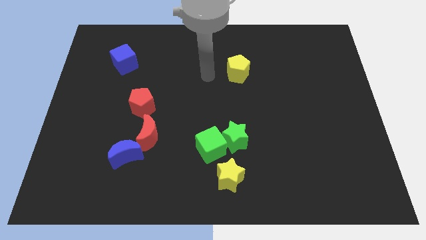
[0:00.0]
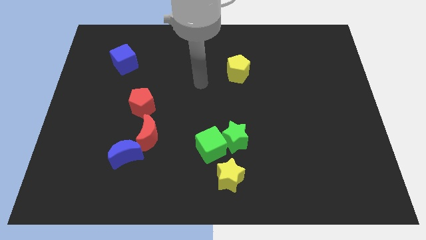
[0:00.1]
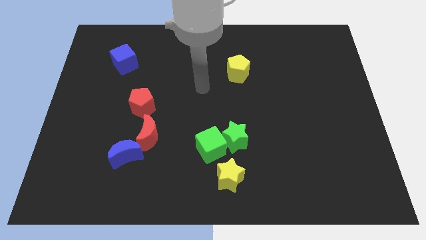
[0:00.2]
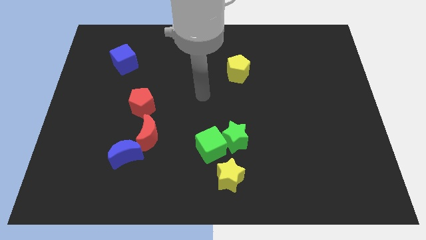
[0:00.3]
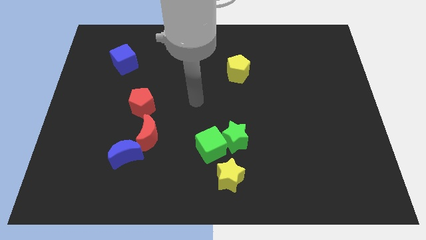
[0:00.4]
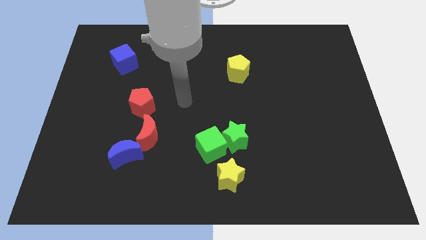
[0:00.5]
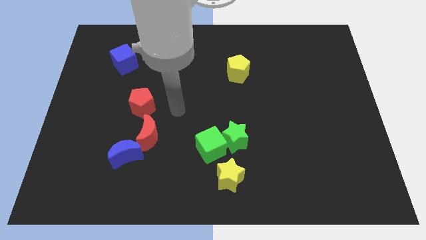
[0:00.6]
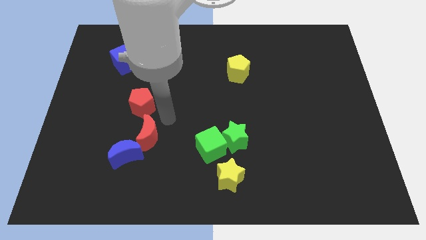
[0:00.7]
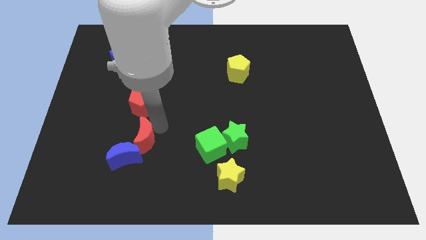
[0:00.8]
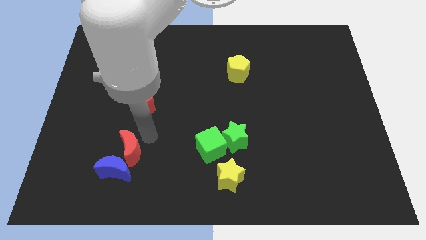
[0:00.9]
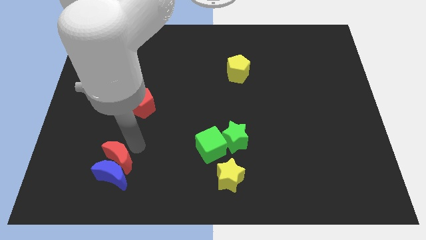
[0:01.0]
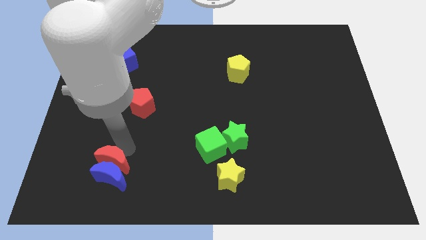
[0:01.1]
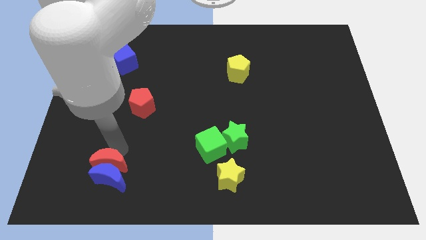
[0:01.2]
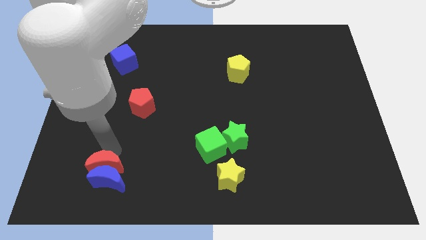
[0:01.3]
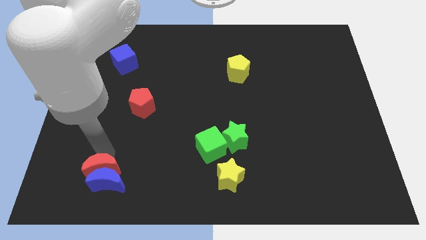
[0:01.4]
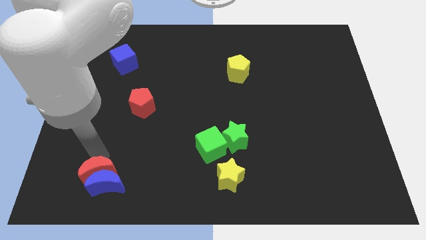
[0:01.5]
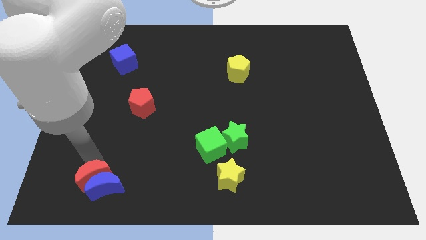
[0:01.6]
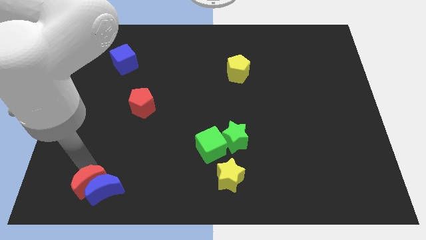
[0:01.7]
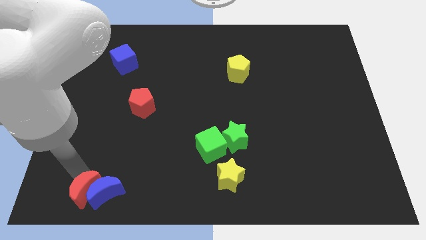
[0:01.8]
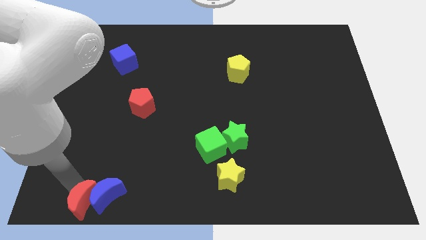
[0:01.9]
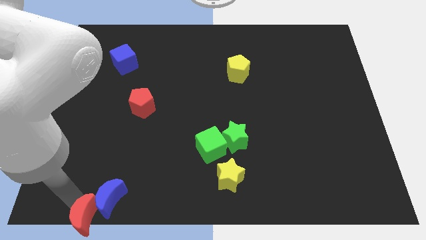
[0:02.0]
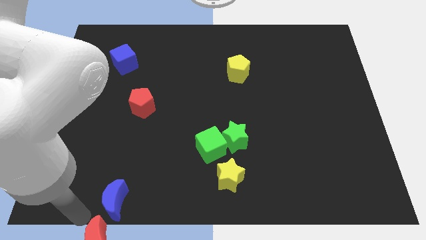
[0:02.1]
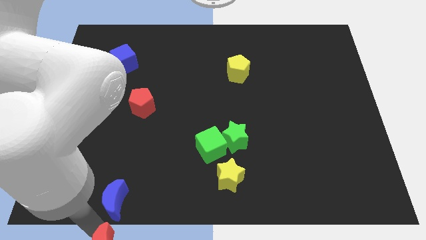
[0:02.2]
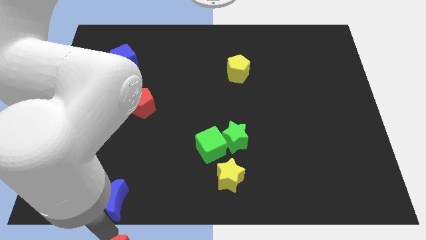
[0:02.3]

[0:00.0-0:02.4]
pull the blue moon apart from the red moon

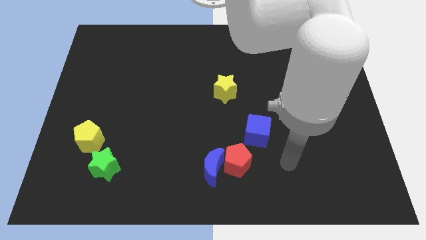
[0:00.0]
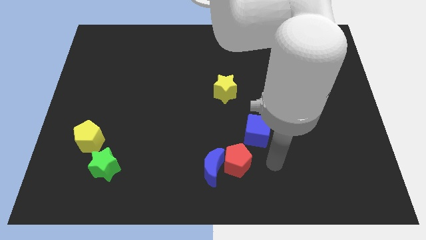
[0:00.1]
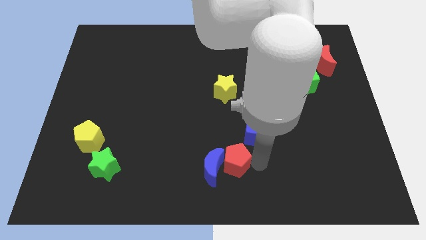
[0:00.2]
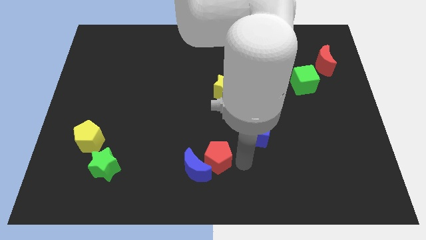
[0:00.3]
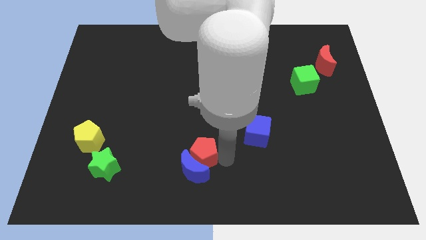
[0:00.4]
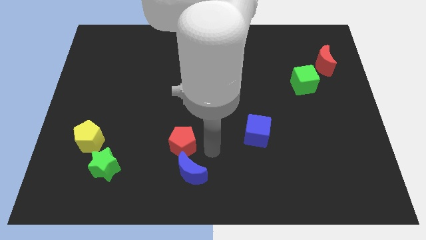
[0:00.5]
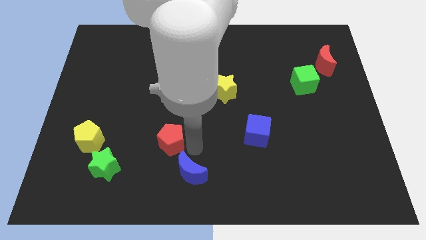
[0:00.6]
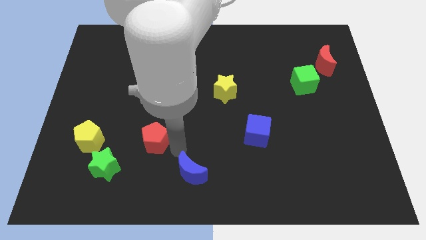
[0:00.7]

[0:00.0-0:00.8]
pull the blue moon apart from the red pentagon

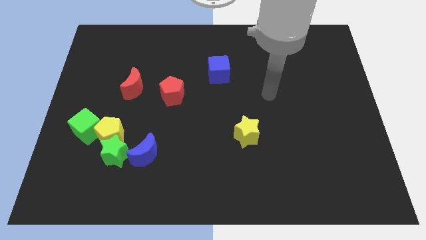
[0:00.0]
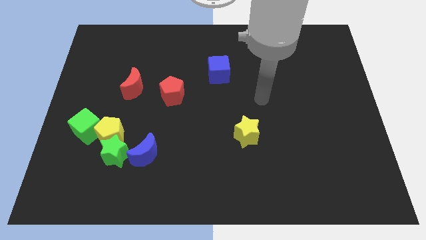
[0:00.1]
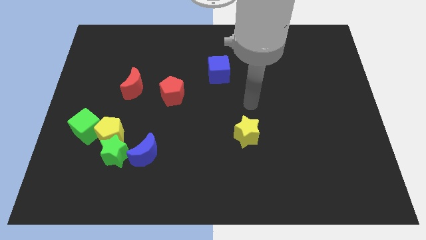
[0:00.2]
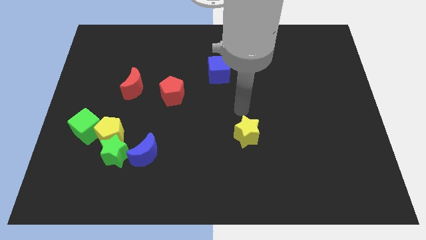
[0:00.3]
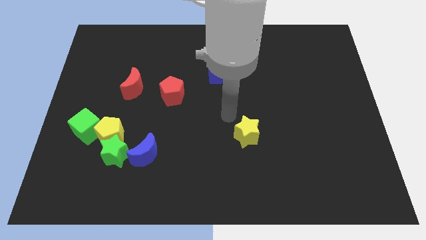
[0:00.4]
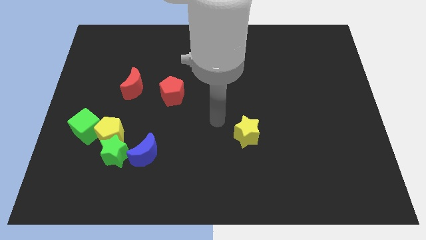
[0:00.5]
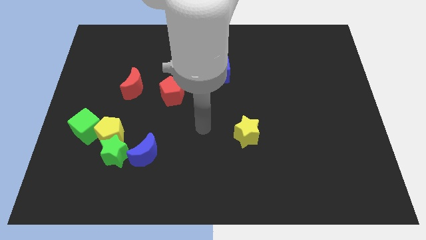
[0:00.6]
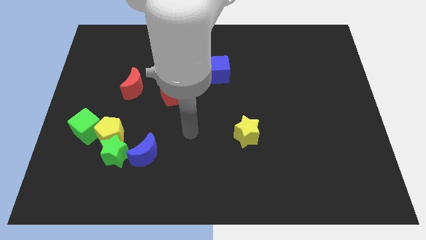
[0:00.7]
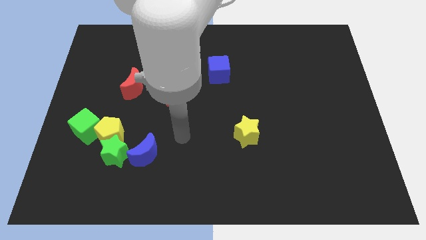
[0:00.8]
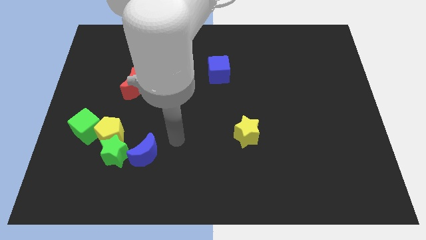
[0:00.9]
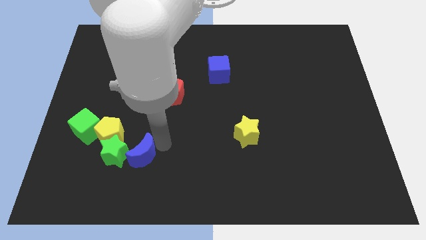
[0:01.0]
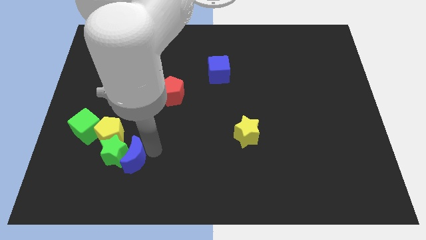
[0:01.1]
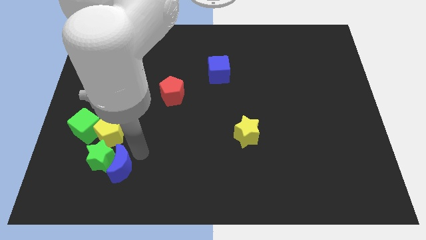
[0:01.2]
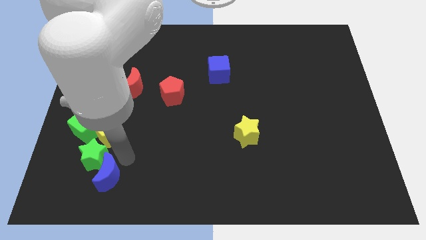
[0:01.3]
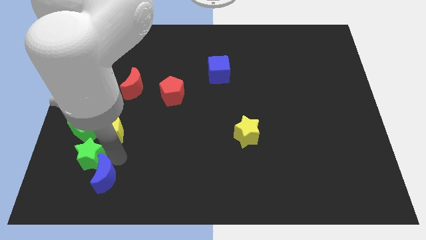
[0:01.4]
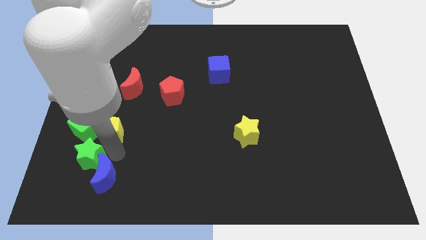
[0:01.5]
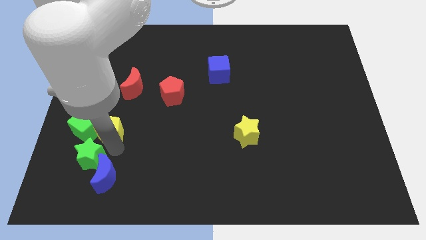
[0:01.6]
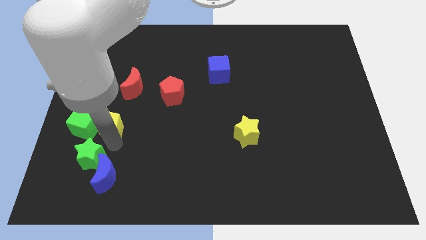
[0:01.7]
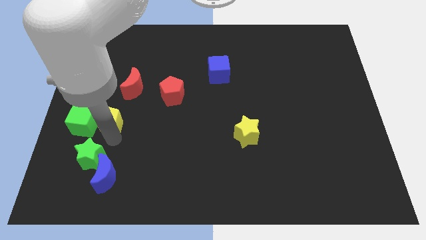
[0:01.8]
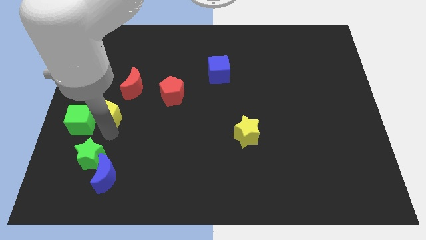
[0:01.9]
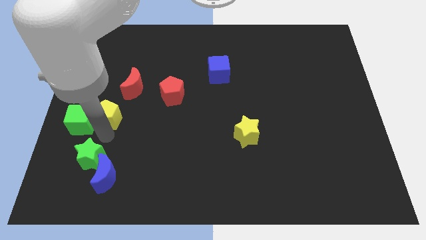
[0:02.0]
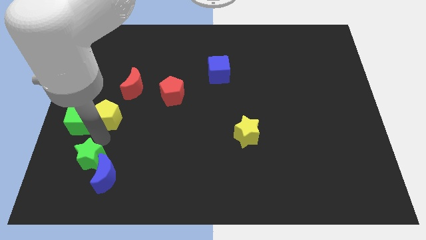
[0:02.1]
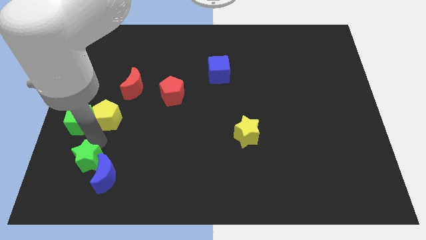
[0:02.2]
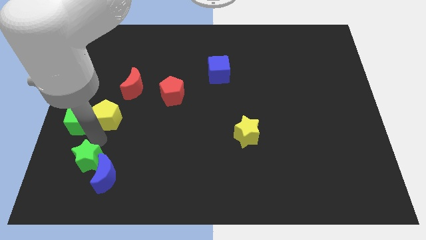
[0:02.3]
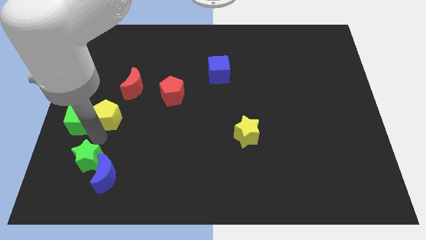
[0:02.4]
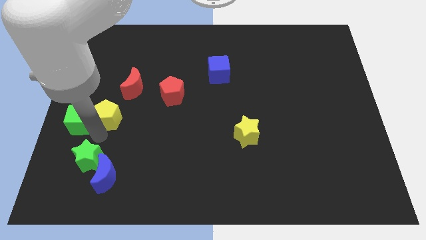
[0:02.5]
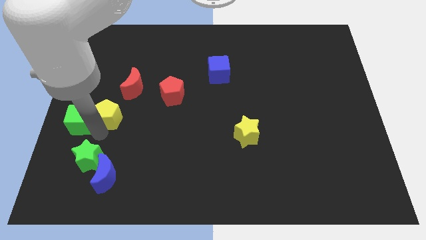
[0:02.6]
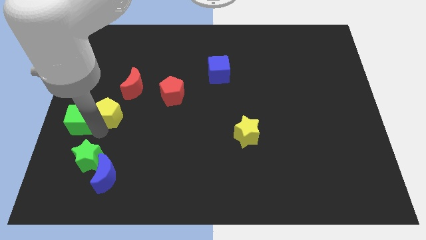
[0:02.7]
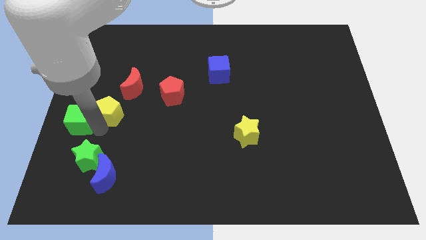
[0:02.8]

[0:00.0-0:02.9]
pull the yellow pentagon apart from the green star, green cube, and blue moon

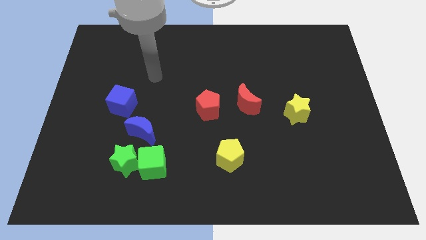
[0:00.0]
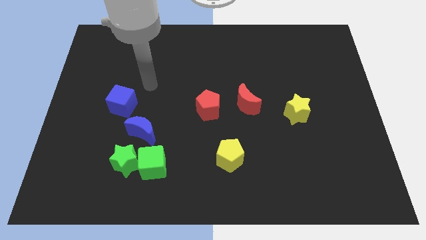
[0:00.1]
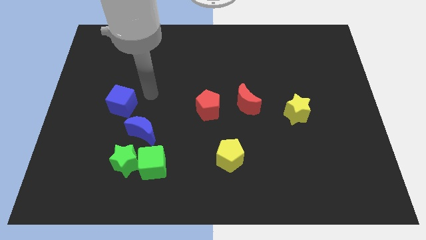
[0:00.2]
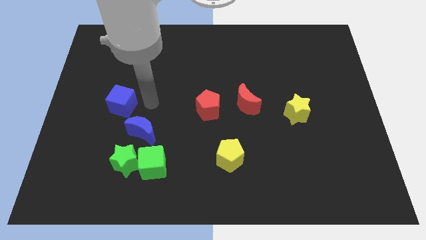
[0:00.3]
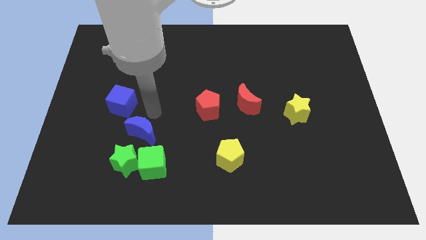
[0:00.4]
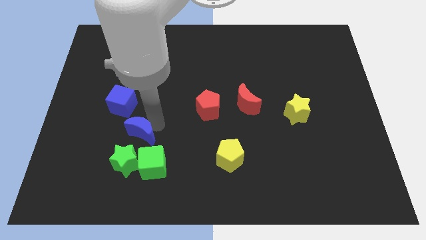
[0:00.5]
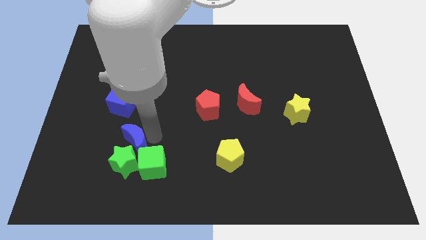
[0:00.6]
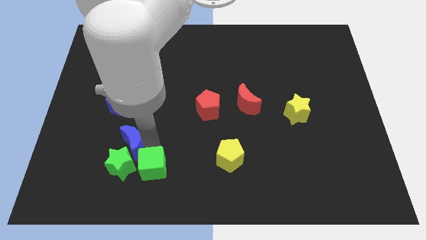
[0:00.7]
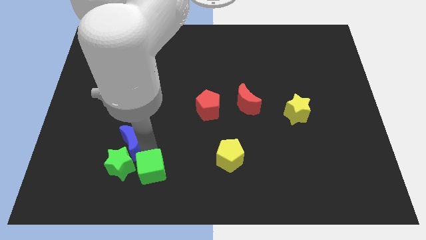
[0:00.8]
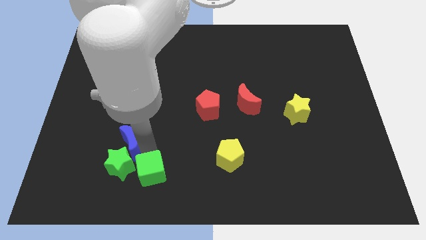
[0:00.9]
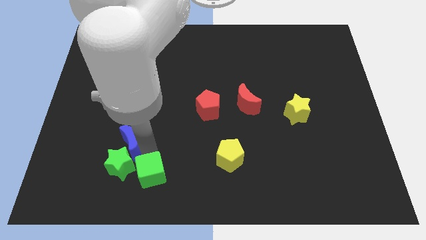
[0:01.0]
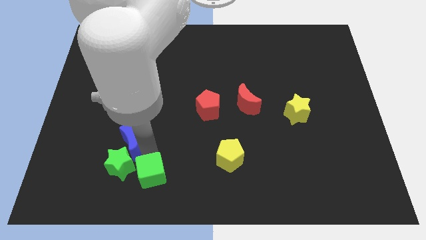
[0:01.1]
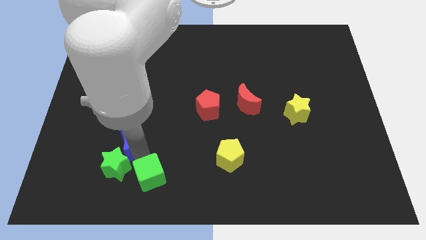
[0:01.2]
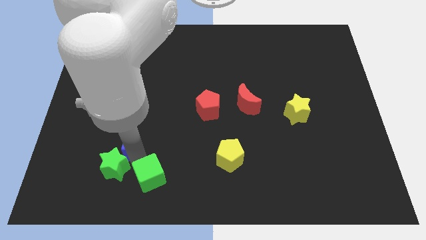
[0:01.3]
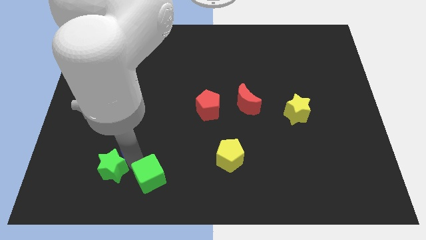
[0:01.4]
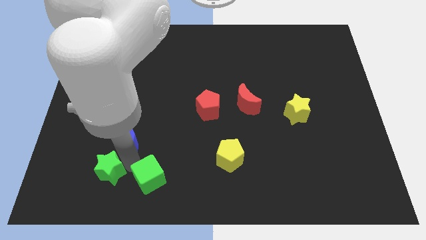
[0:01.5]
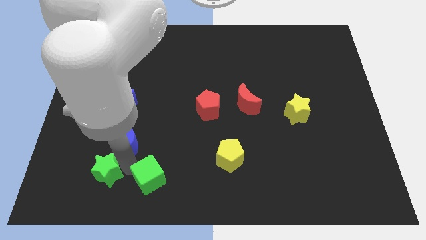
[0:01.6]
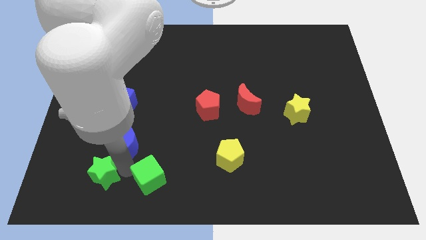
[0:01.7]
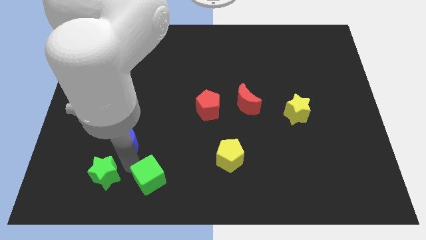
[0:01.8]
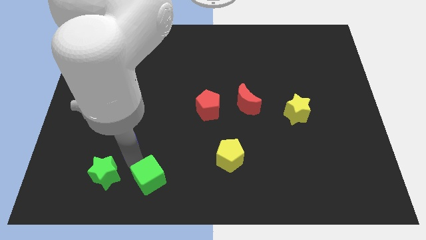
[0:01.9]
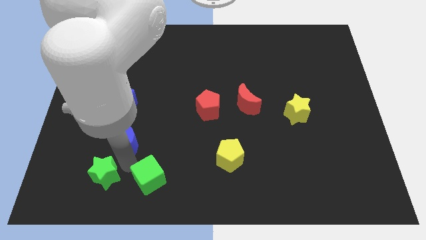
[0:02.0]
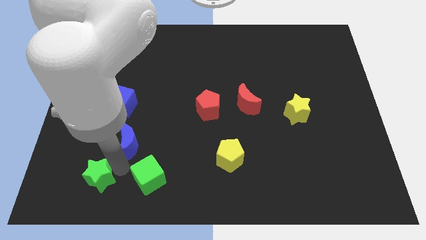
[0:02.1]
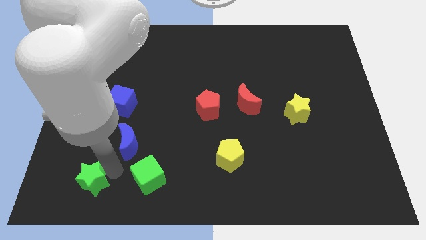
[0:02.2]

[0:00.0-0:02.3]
move the green star away from the green cube and blue moon

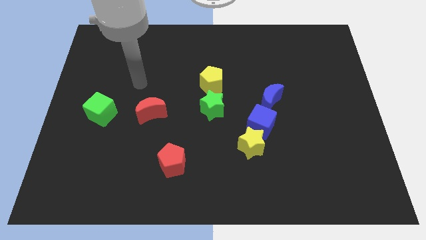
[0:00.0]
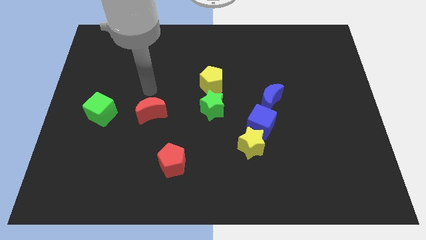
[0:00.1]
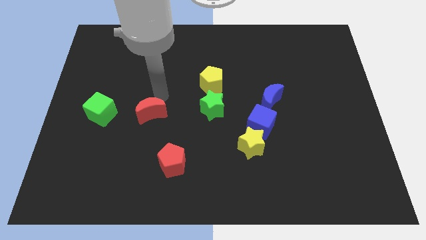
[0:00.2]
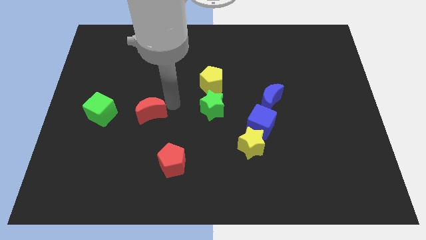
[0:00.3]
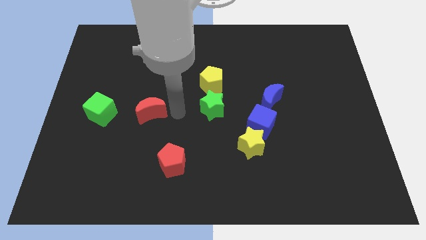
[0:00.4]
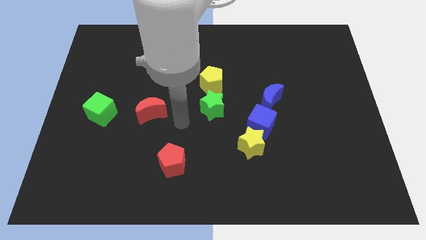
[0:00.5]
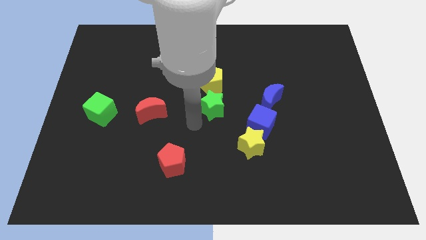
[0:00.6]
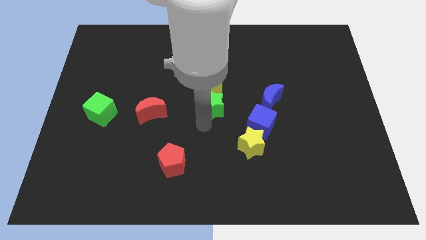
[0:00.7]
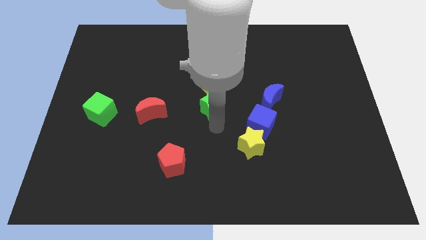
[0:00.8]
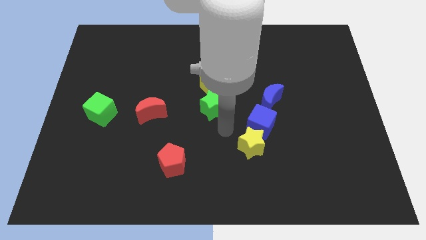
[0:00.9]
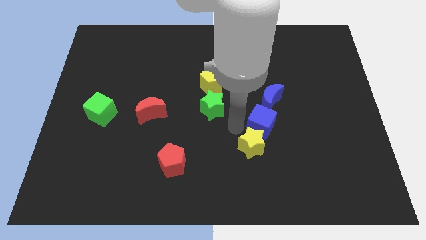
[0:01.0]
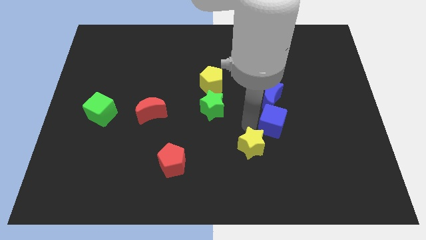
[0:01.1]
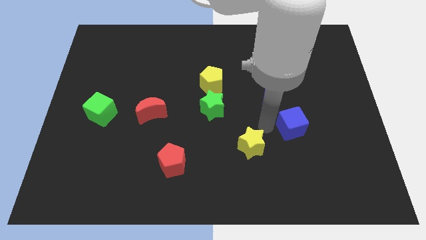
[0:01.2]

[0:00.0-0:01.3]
move the yellow star away from the blue cube
